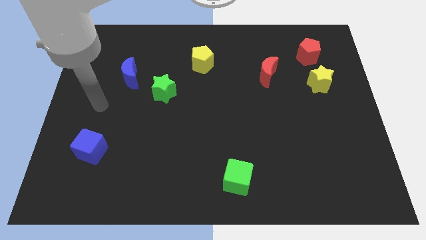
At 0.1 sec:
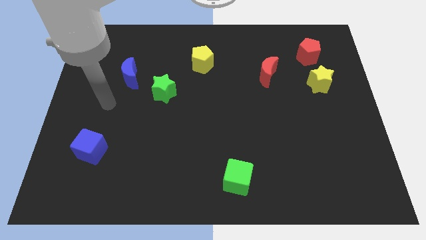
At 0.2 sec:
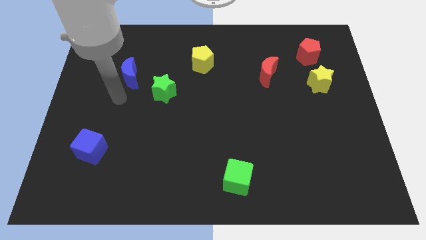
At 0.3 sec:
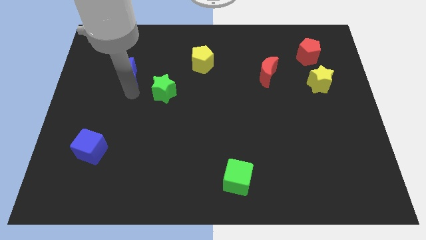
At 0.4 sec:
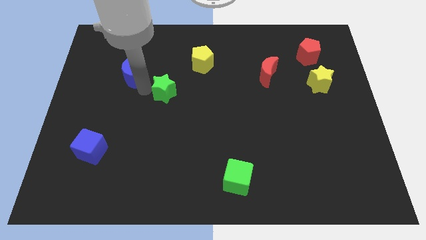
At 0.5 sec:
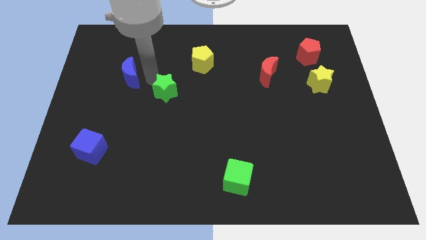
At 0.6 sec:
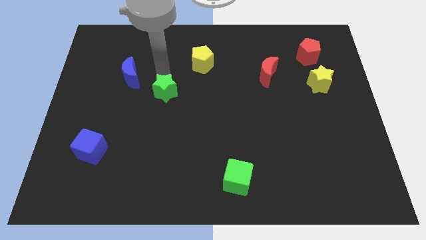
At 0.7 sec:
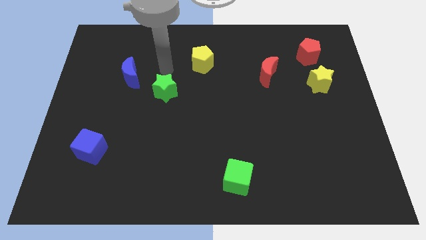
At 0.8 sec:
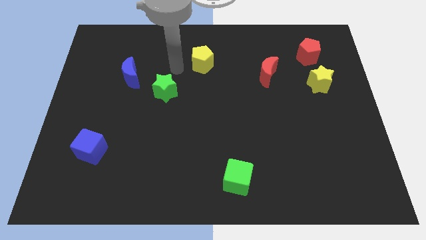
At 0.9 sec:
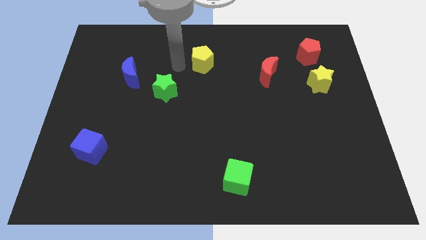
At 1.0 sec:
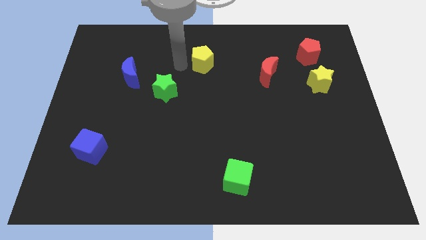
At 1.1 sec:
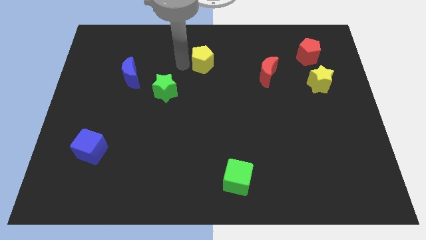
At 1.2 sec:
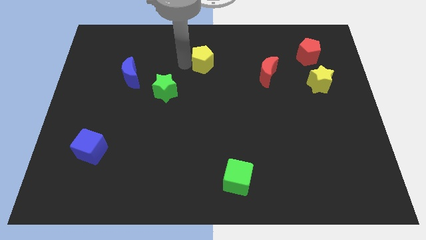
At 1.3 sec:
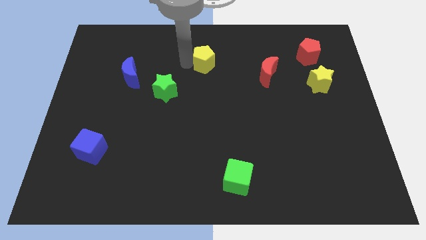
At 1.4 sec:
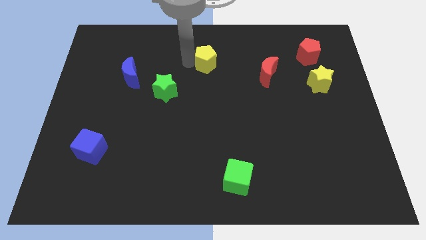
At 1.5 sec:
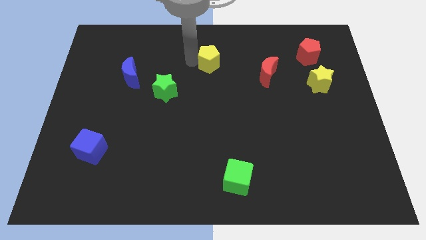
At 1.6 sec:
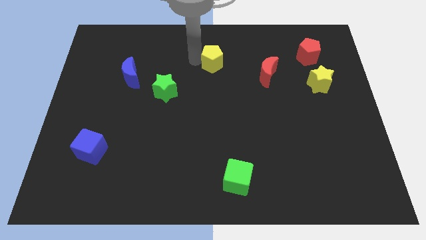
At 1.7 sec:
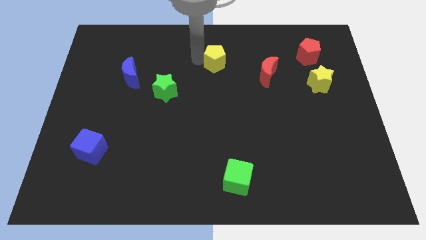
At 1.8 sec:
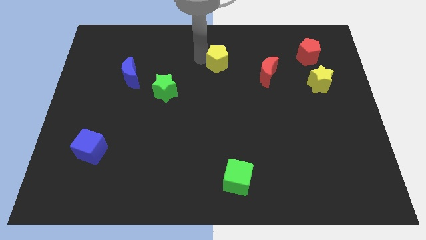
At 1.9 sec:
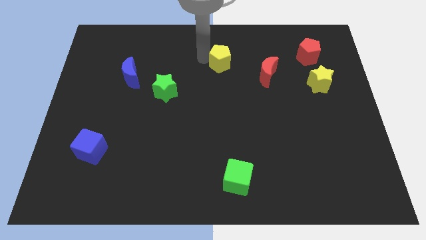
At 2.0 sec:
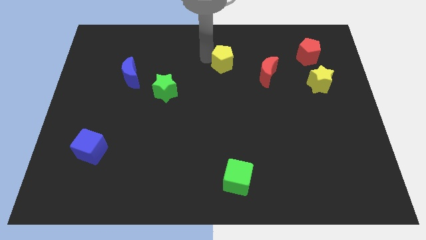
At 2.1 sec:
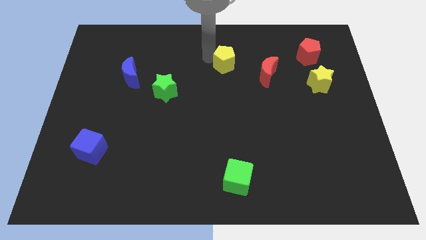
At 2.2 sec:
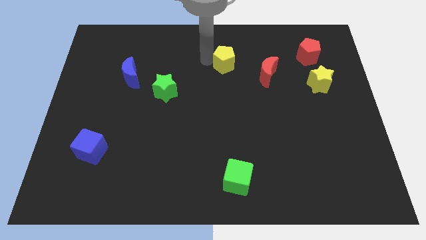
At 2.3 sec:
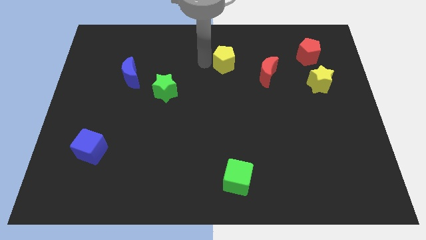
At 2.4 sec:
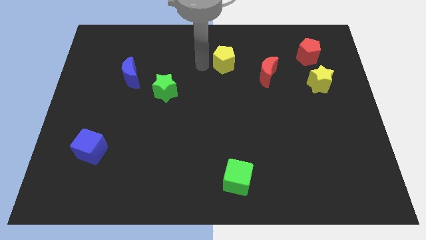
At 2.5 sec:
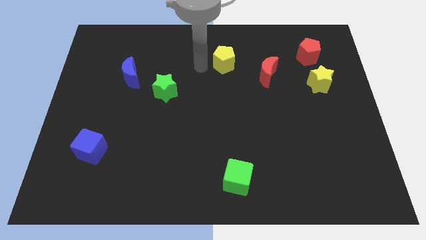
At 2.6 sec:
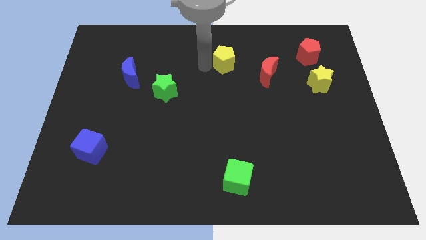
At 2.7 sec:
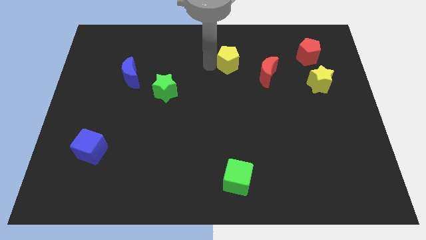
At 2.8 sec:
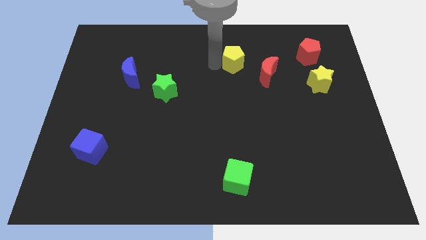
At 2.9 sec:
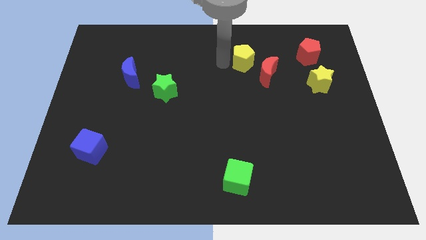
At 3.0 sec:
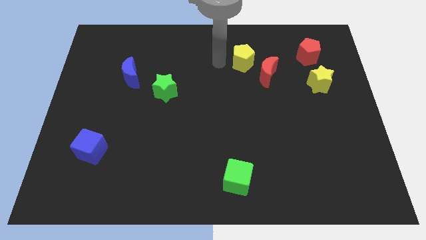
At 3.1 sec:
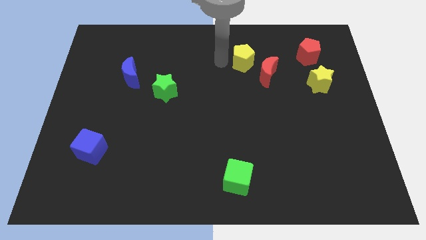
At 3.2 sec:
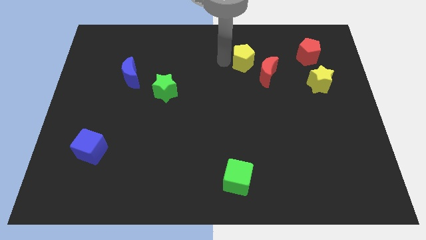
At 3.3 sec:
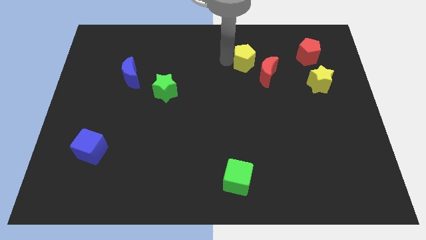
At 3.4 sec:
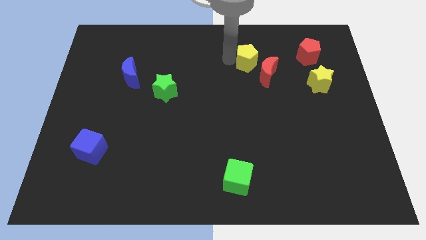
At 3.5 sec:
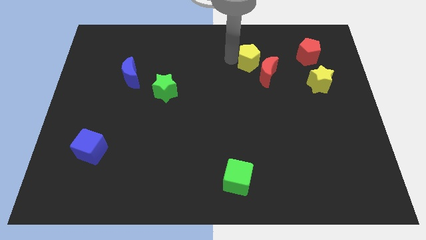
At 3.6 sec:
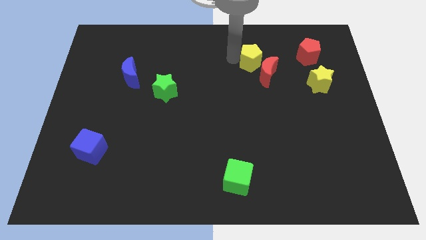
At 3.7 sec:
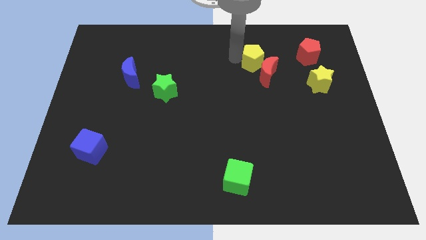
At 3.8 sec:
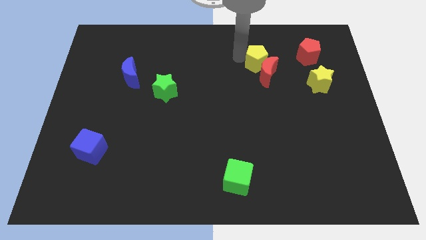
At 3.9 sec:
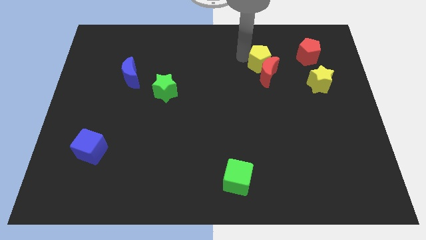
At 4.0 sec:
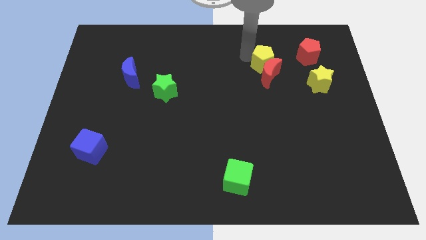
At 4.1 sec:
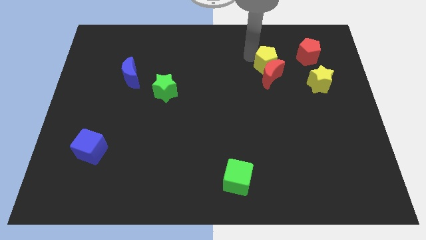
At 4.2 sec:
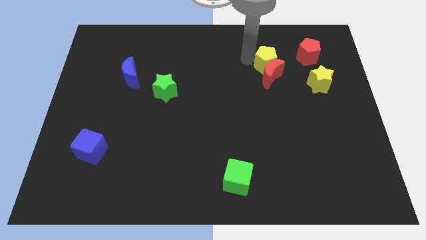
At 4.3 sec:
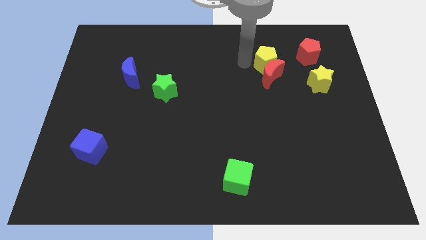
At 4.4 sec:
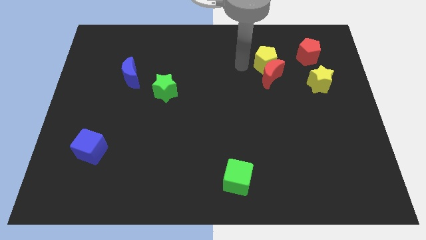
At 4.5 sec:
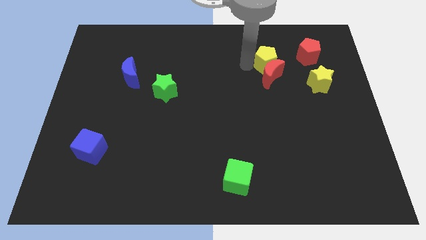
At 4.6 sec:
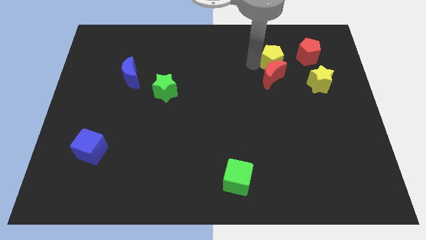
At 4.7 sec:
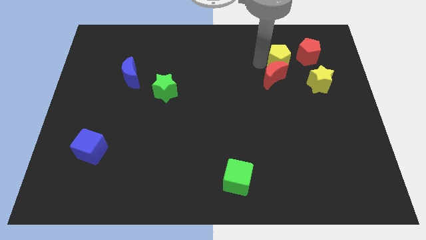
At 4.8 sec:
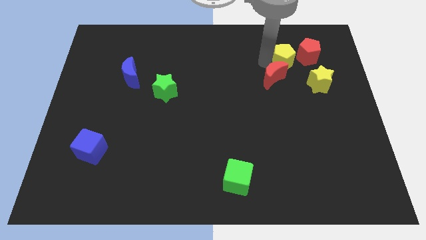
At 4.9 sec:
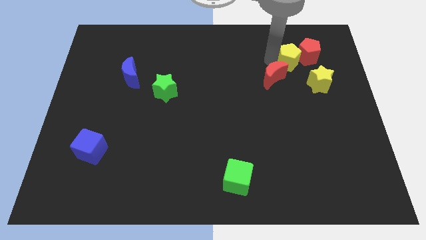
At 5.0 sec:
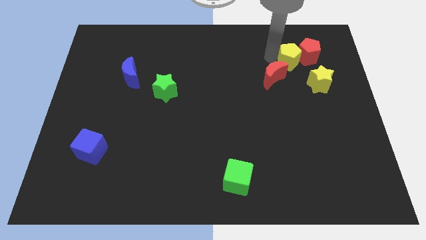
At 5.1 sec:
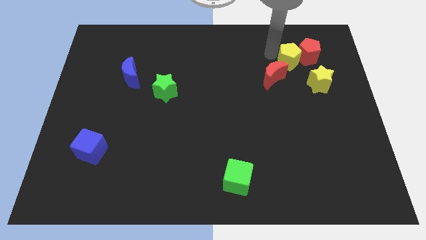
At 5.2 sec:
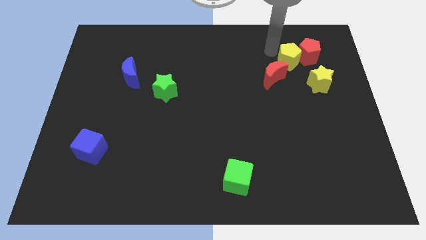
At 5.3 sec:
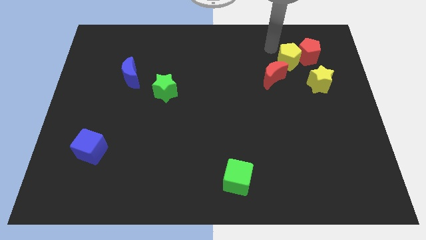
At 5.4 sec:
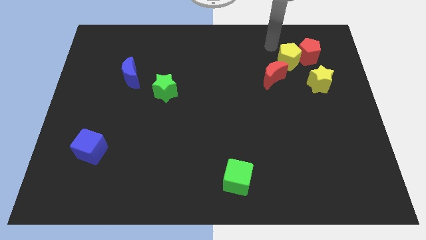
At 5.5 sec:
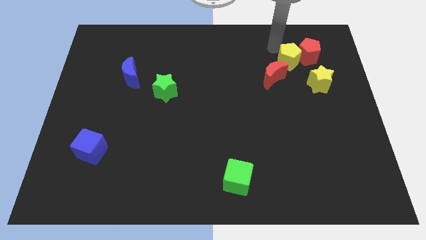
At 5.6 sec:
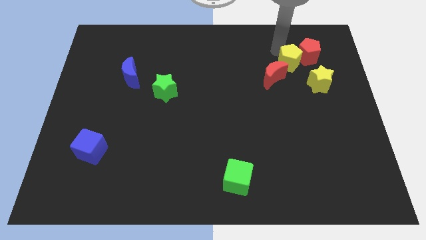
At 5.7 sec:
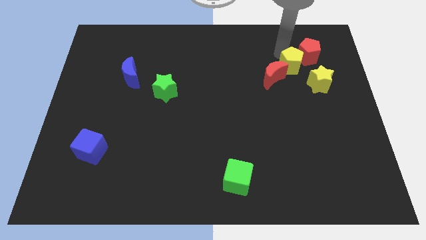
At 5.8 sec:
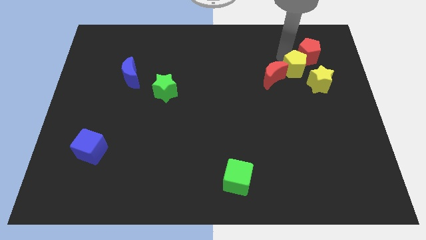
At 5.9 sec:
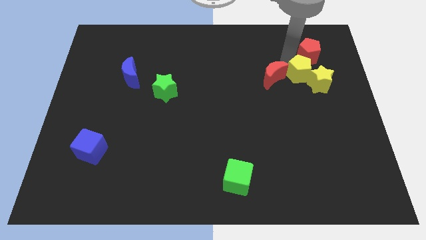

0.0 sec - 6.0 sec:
put the yellow pentagon to the yellow star

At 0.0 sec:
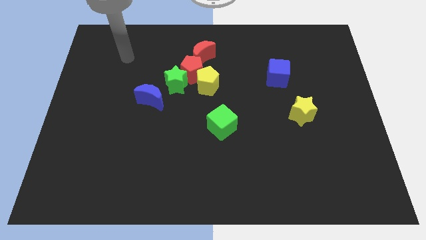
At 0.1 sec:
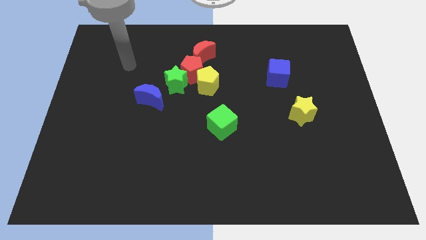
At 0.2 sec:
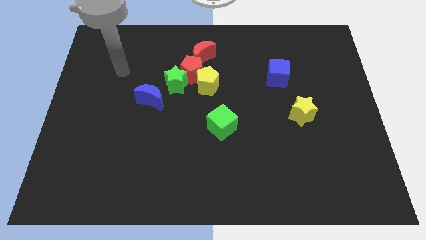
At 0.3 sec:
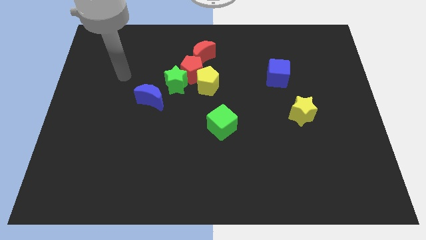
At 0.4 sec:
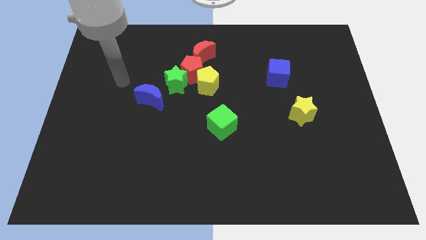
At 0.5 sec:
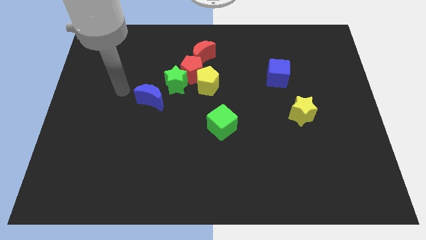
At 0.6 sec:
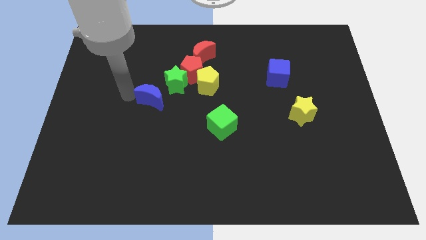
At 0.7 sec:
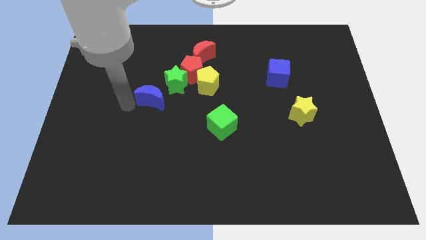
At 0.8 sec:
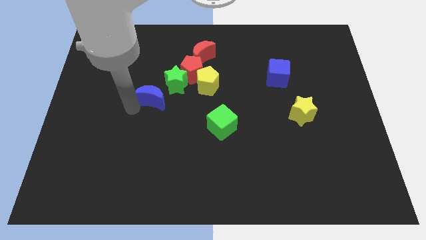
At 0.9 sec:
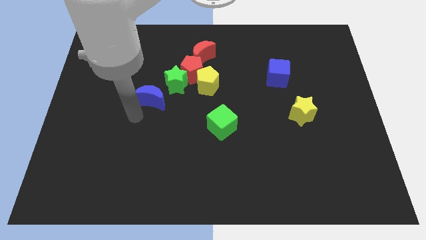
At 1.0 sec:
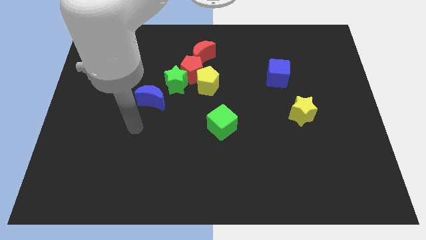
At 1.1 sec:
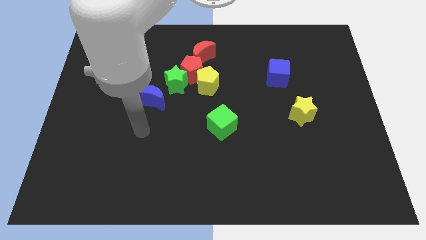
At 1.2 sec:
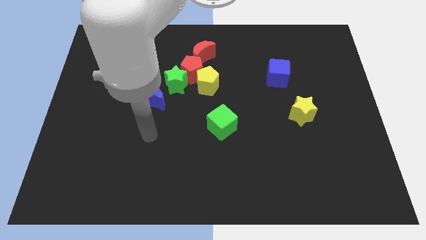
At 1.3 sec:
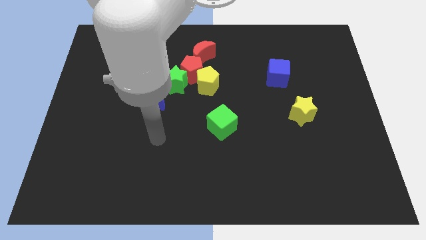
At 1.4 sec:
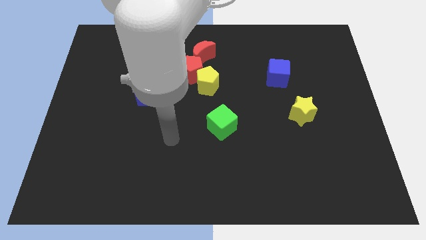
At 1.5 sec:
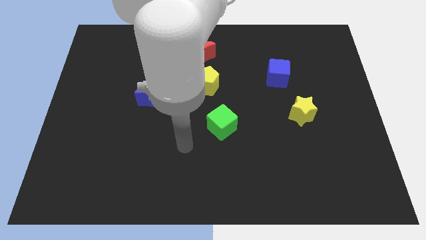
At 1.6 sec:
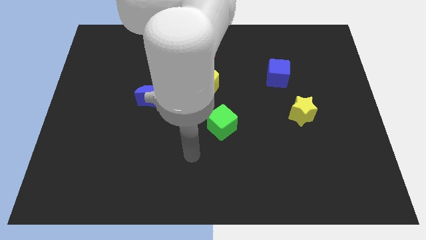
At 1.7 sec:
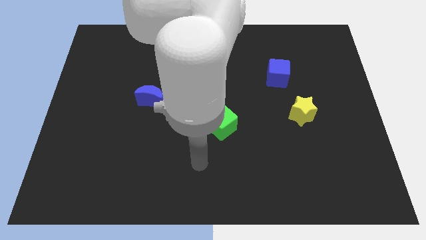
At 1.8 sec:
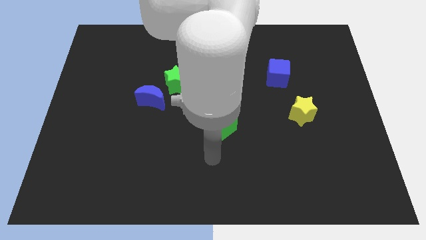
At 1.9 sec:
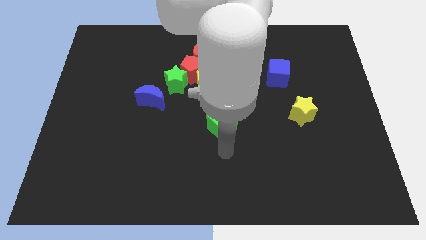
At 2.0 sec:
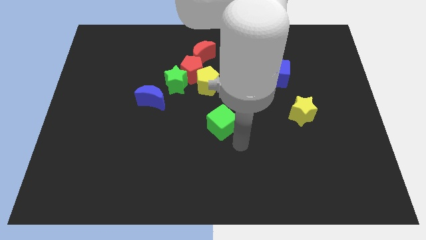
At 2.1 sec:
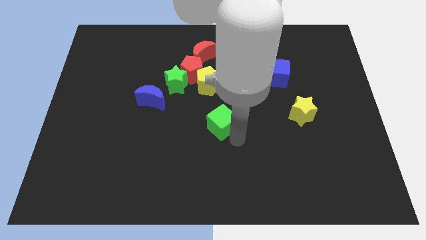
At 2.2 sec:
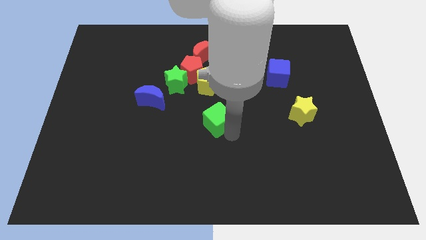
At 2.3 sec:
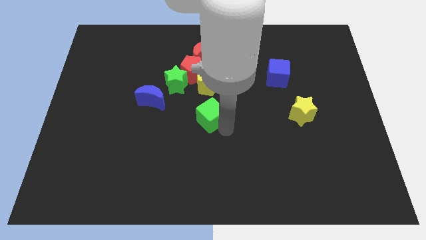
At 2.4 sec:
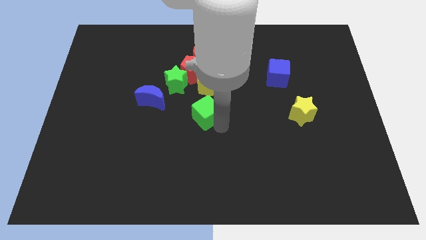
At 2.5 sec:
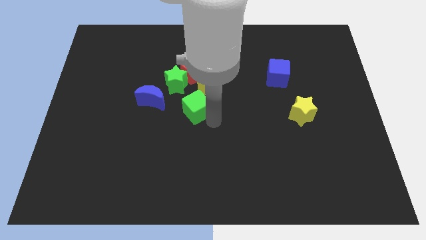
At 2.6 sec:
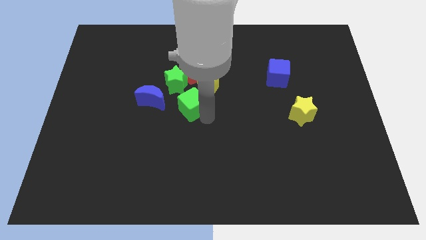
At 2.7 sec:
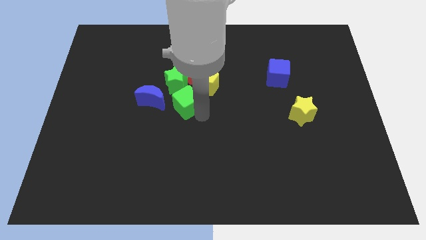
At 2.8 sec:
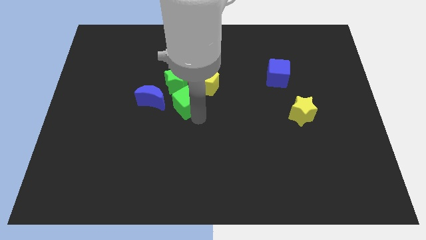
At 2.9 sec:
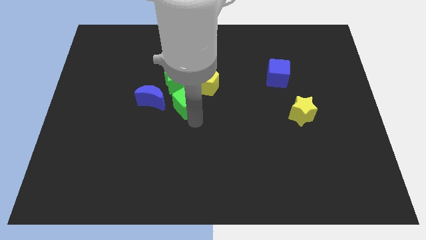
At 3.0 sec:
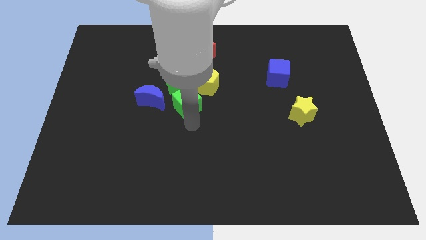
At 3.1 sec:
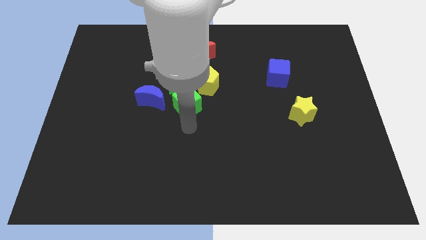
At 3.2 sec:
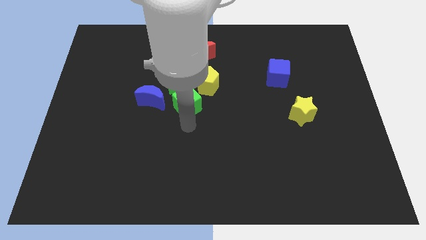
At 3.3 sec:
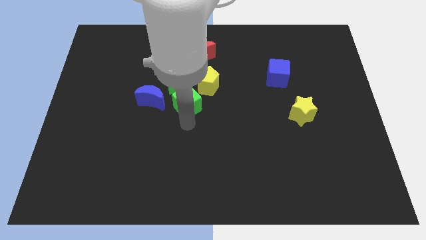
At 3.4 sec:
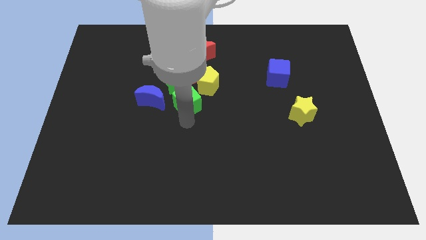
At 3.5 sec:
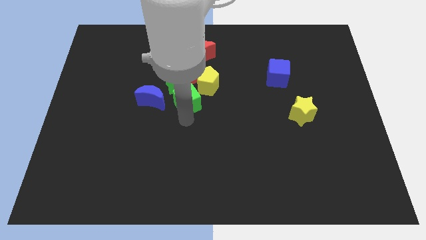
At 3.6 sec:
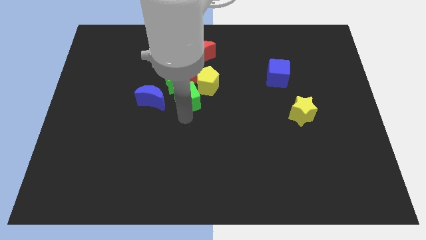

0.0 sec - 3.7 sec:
put the green cube next to the green star
